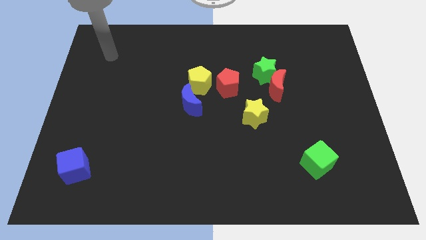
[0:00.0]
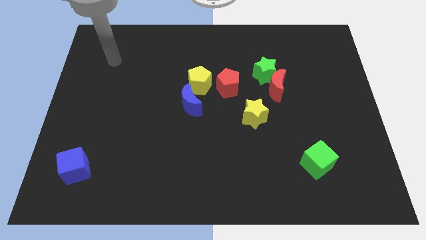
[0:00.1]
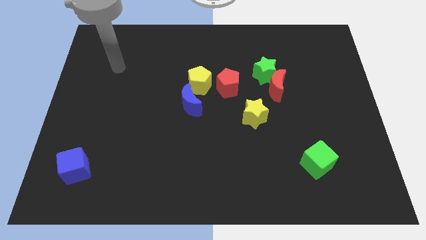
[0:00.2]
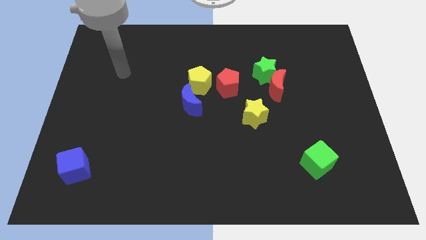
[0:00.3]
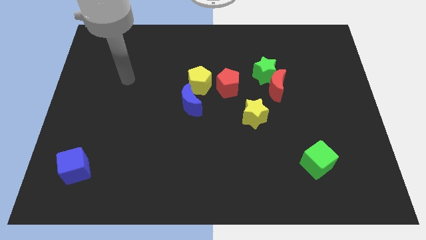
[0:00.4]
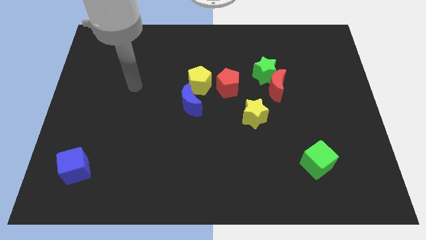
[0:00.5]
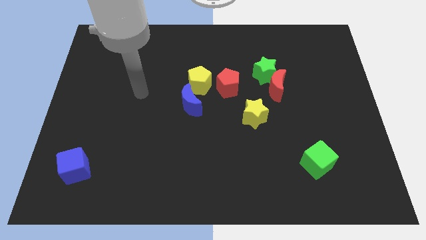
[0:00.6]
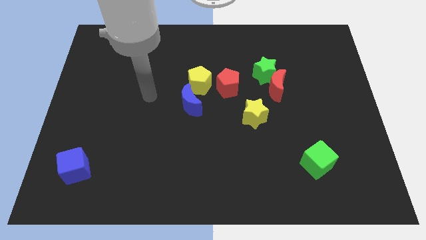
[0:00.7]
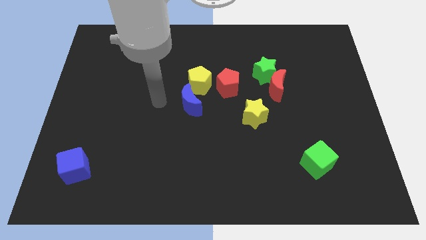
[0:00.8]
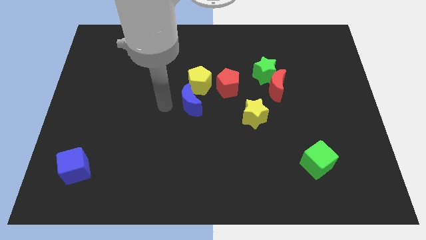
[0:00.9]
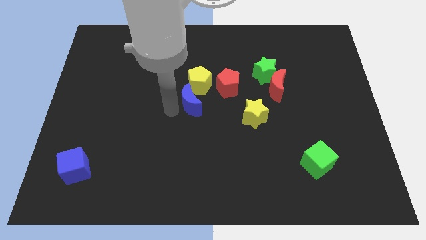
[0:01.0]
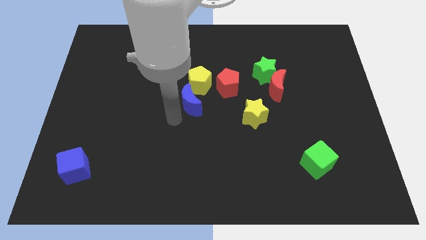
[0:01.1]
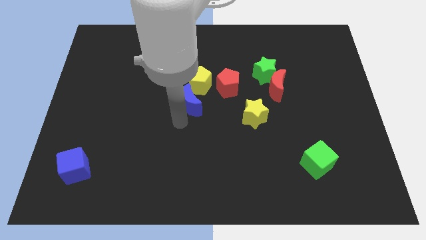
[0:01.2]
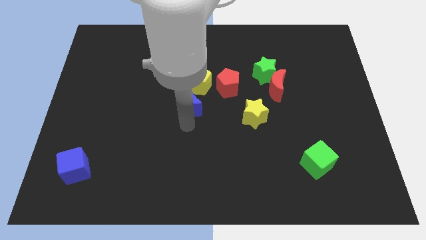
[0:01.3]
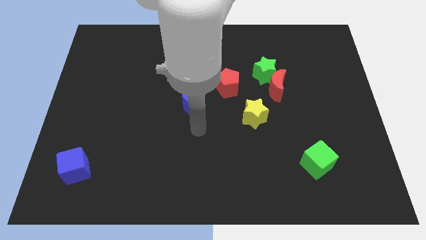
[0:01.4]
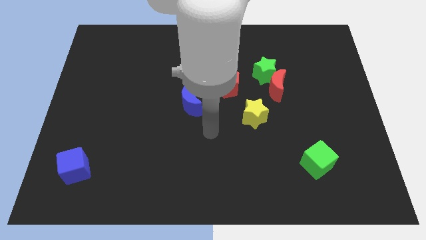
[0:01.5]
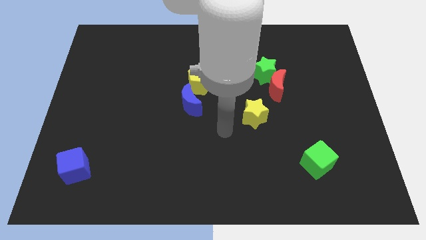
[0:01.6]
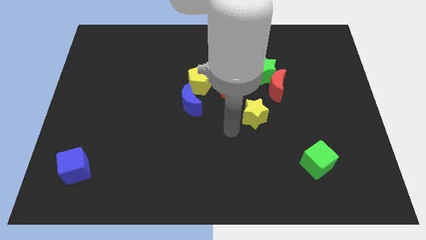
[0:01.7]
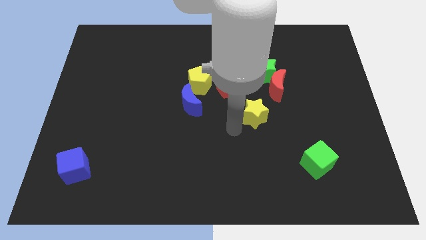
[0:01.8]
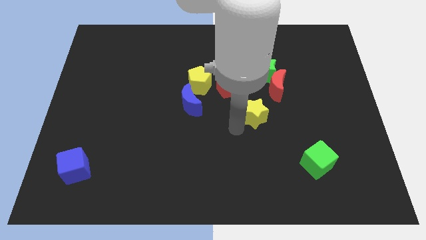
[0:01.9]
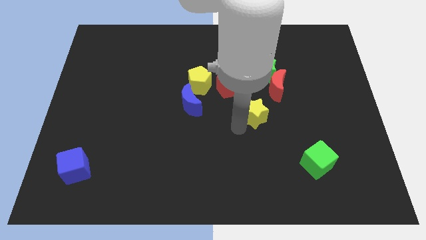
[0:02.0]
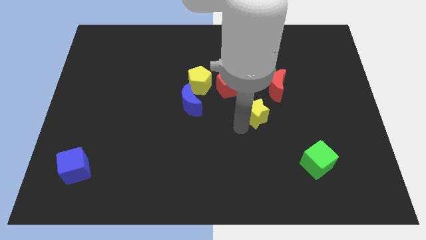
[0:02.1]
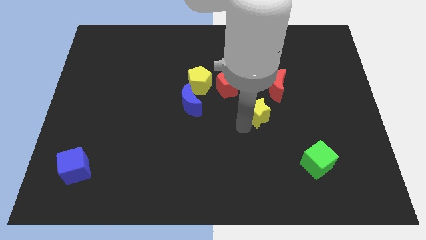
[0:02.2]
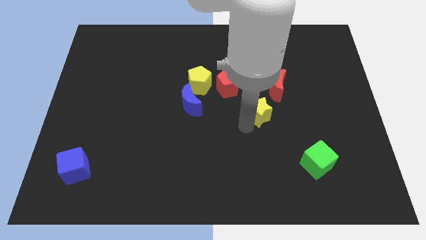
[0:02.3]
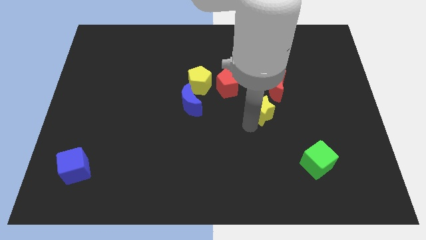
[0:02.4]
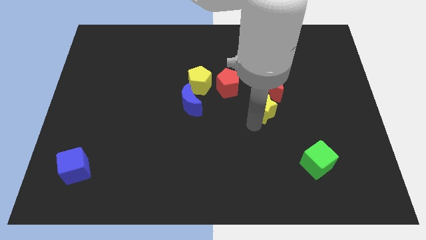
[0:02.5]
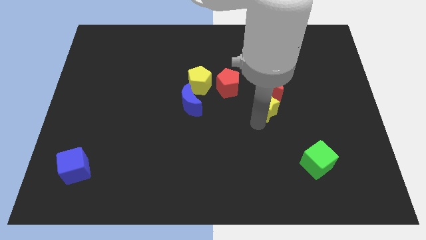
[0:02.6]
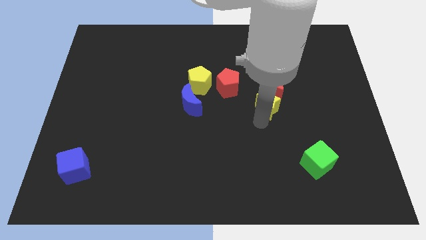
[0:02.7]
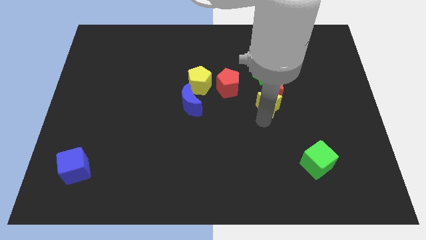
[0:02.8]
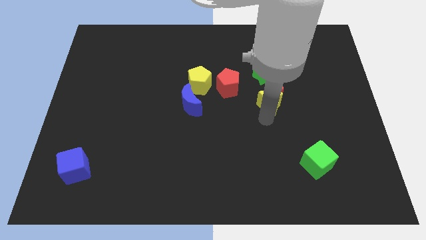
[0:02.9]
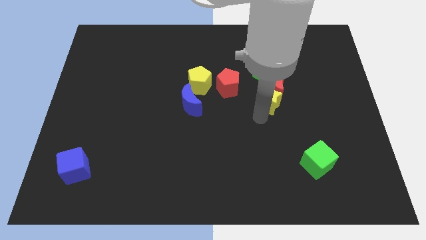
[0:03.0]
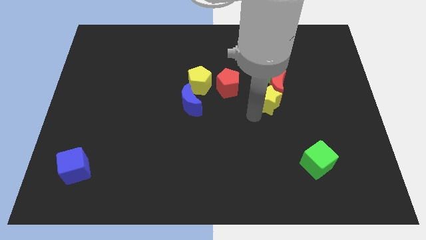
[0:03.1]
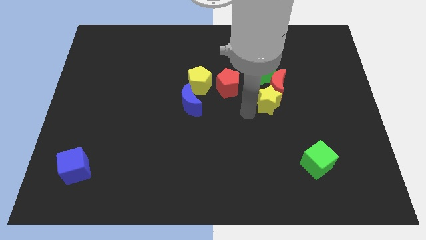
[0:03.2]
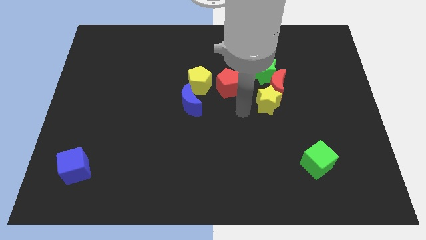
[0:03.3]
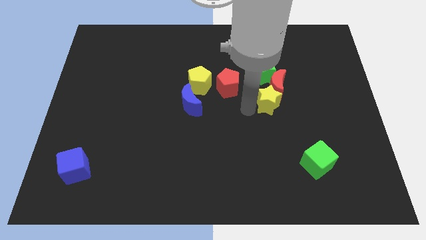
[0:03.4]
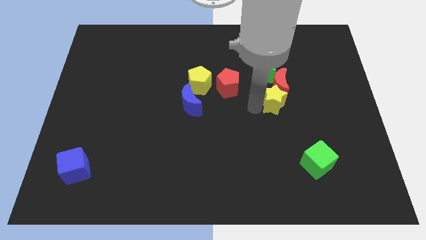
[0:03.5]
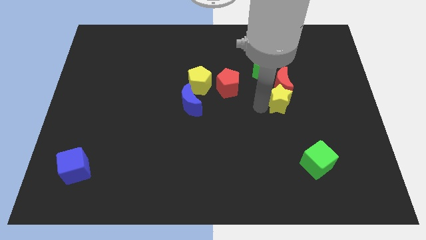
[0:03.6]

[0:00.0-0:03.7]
slightly move the yellow star up and to the right

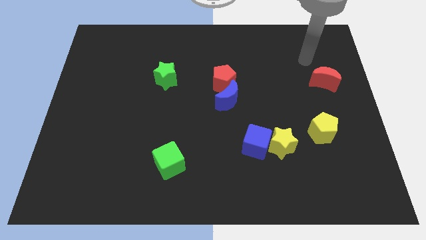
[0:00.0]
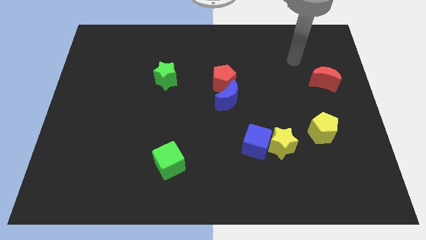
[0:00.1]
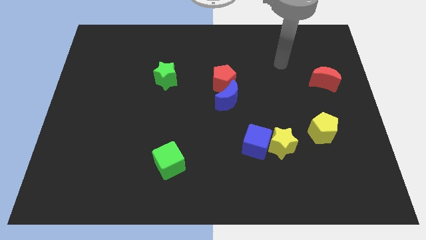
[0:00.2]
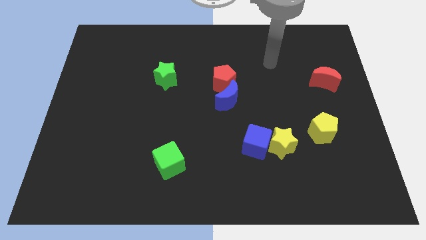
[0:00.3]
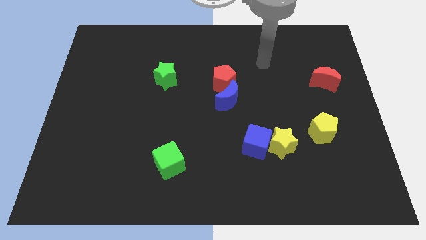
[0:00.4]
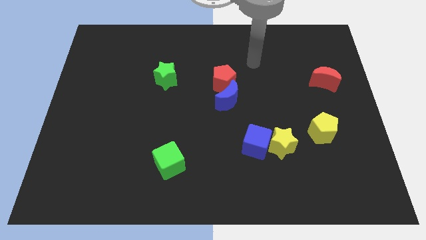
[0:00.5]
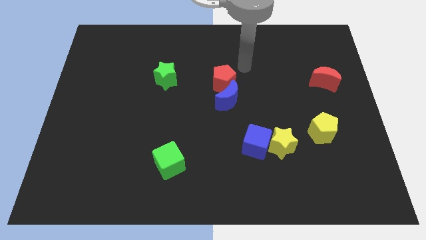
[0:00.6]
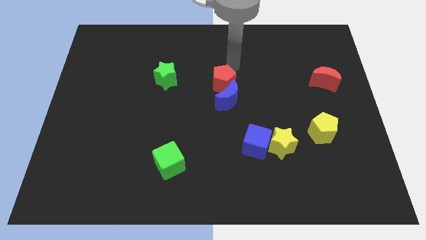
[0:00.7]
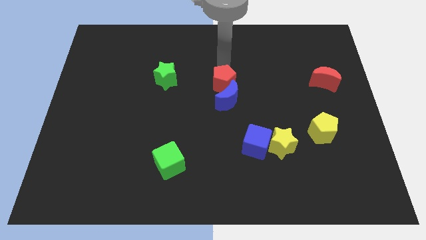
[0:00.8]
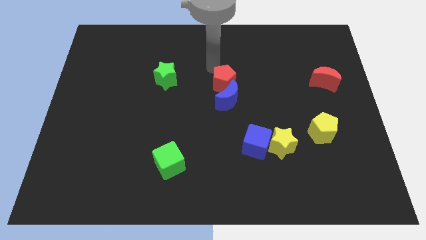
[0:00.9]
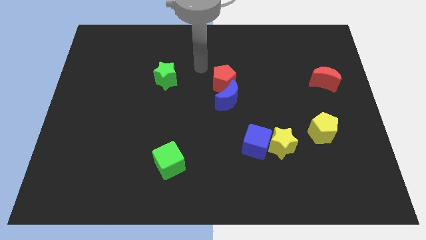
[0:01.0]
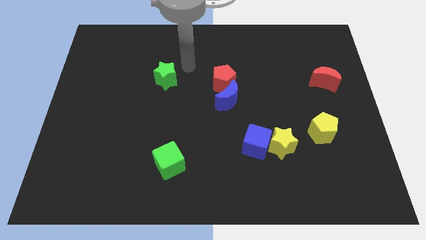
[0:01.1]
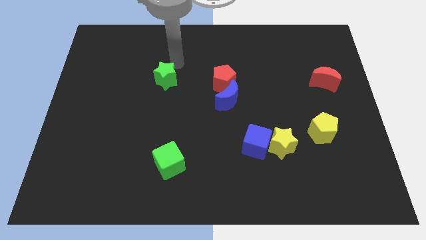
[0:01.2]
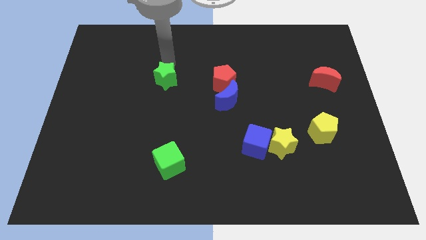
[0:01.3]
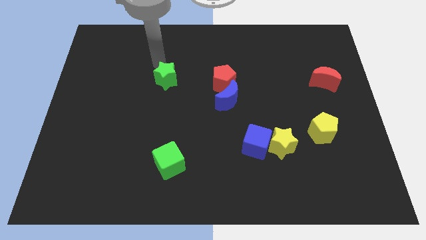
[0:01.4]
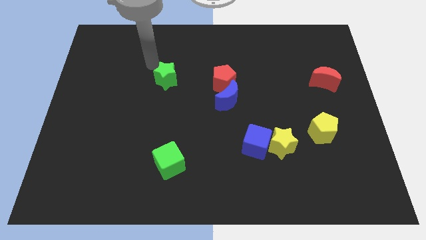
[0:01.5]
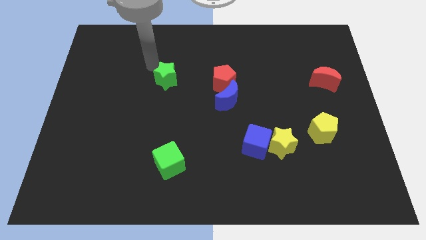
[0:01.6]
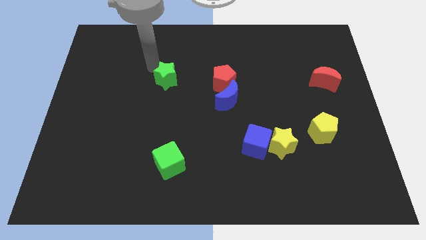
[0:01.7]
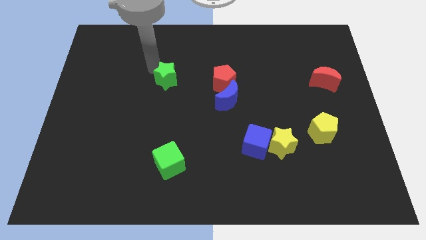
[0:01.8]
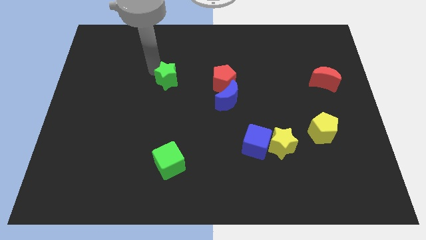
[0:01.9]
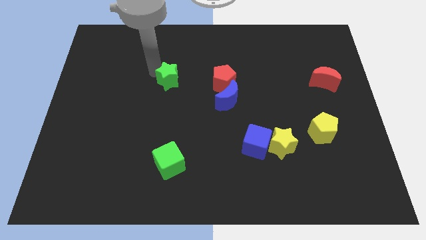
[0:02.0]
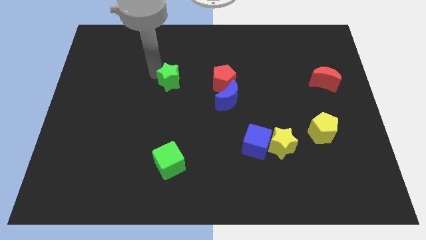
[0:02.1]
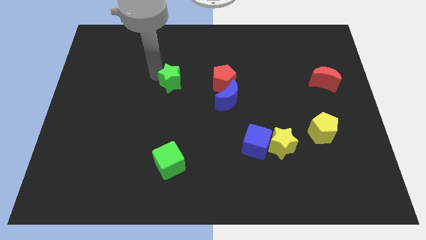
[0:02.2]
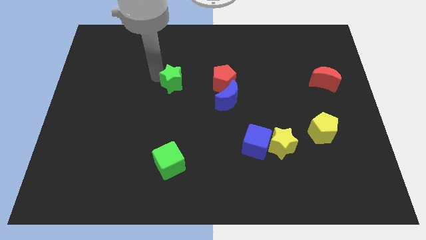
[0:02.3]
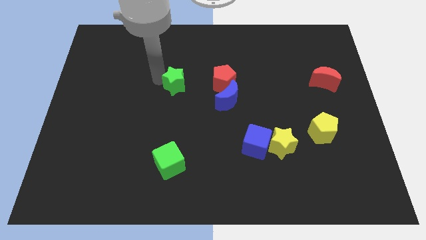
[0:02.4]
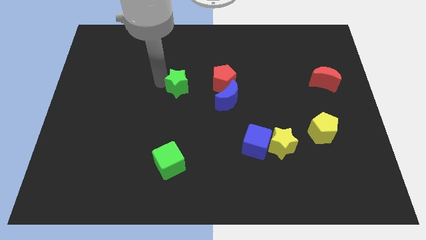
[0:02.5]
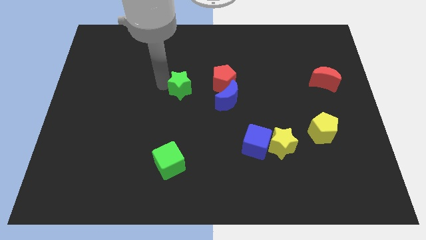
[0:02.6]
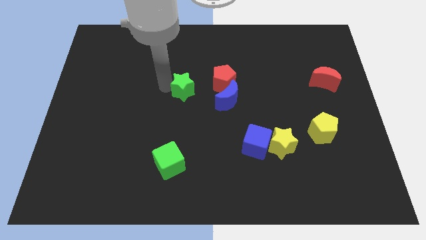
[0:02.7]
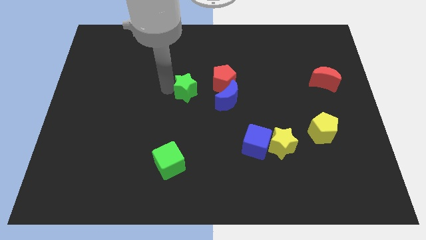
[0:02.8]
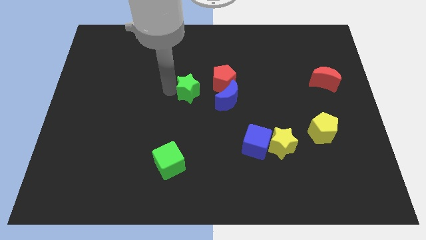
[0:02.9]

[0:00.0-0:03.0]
push the green star somewhat downwards and right

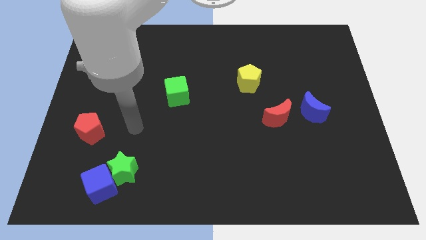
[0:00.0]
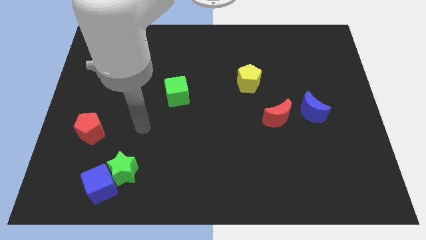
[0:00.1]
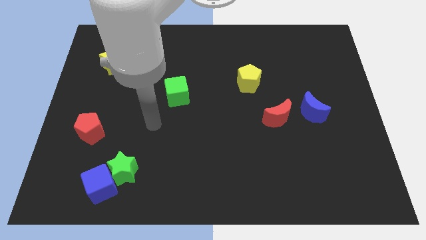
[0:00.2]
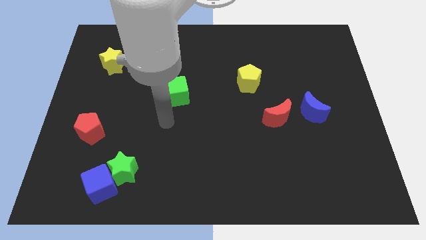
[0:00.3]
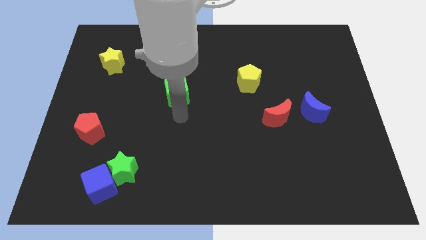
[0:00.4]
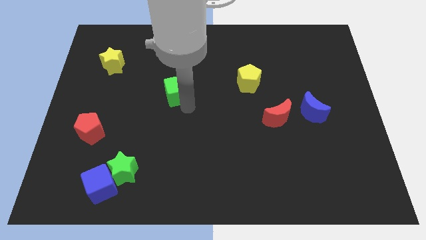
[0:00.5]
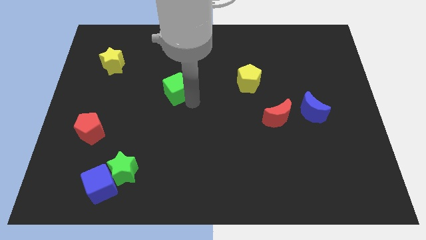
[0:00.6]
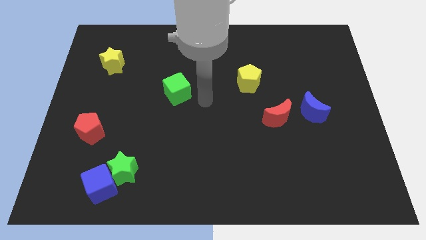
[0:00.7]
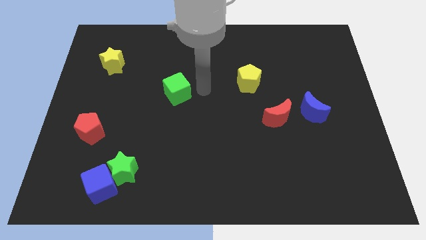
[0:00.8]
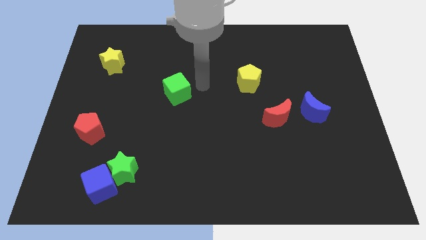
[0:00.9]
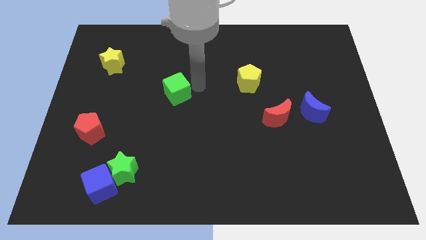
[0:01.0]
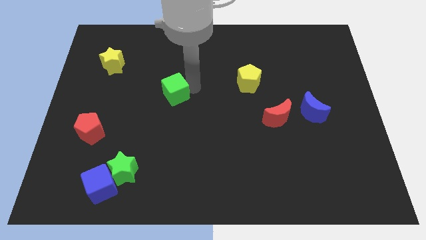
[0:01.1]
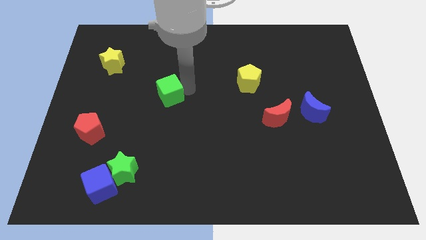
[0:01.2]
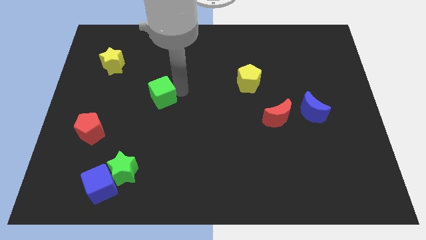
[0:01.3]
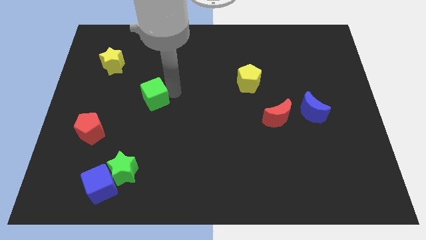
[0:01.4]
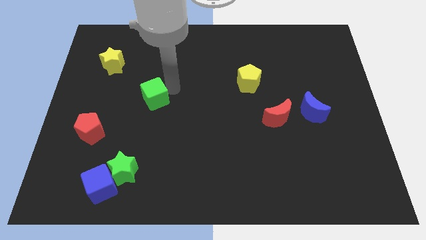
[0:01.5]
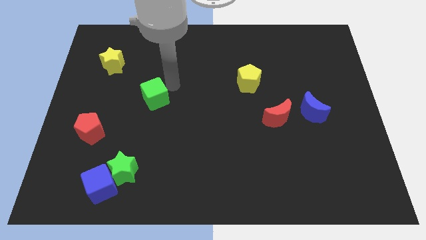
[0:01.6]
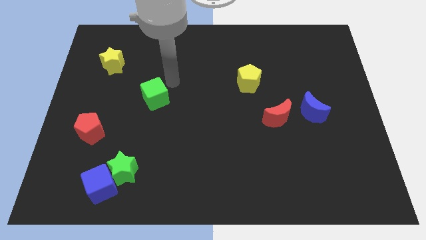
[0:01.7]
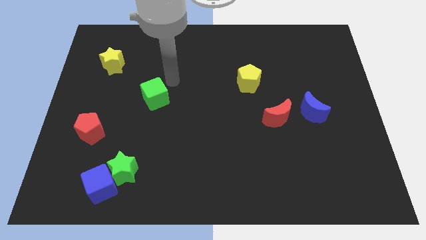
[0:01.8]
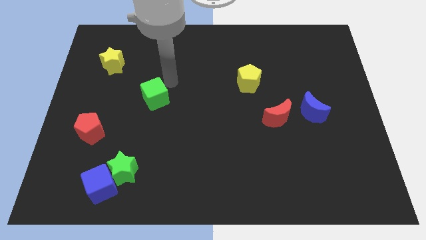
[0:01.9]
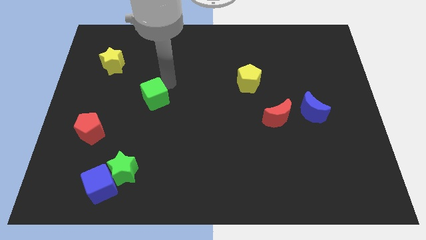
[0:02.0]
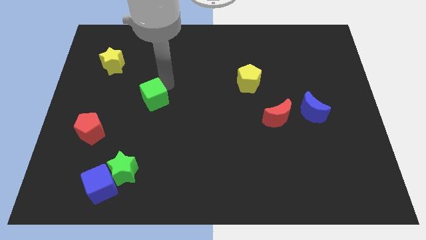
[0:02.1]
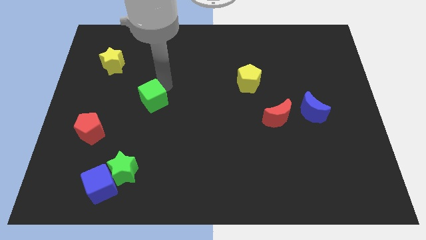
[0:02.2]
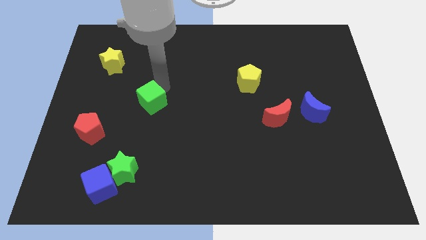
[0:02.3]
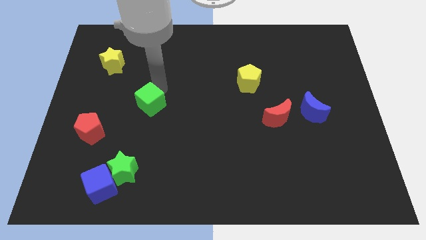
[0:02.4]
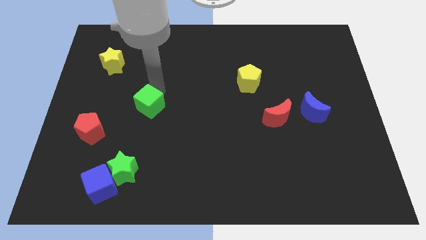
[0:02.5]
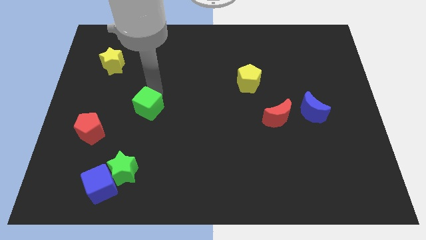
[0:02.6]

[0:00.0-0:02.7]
move the green cube slightly down and to the left
